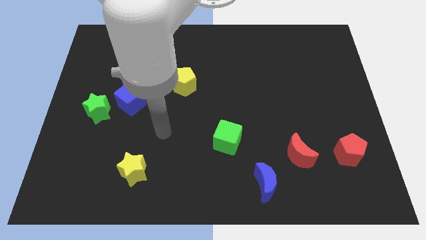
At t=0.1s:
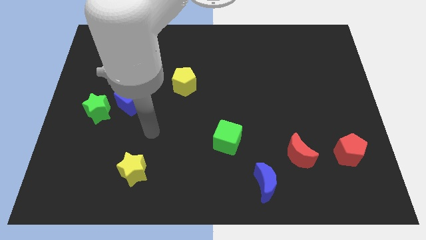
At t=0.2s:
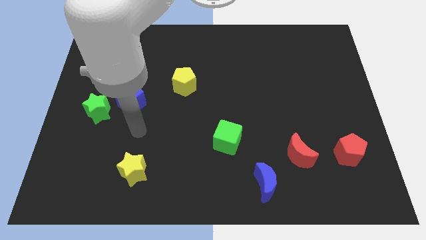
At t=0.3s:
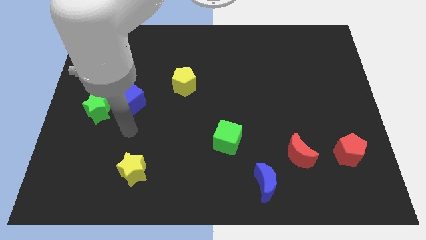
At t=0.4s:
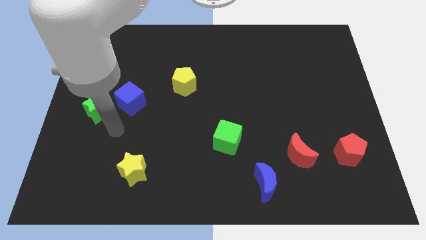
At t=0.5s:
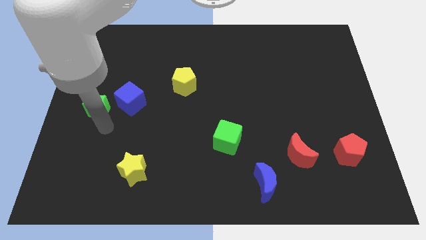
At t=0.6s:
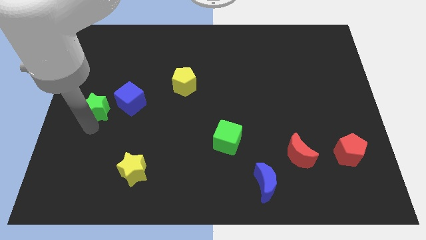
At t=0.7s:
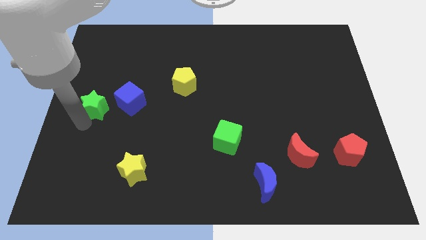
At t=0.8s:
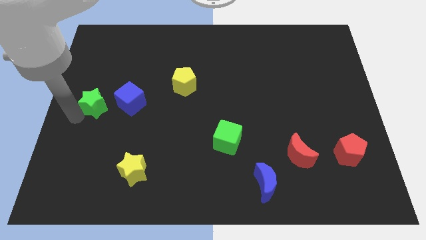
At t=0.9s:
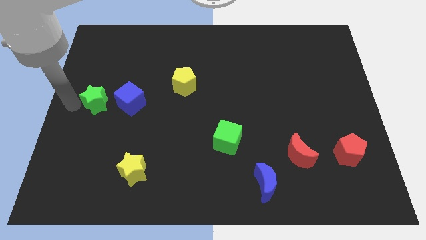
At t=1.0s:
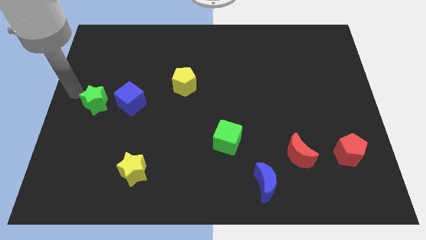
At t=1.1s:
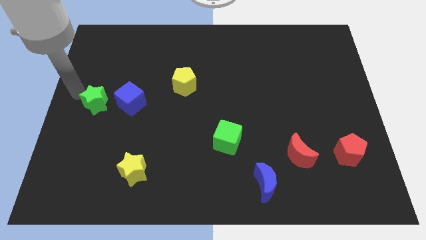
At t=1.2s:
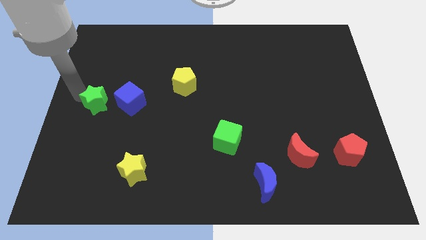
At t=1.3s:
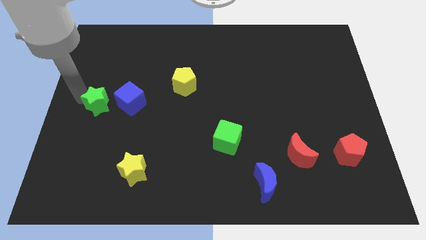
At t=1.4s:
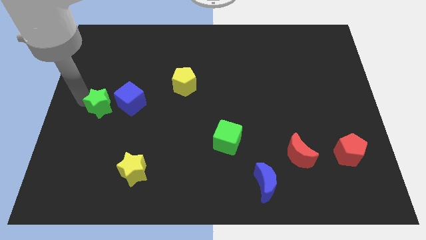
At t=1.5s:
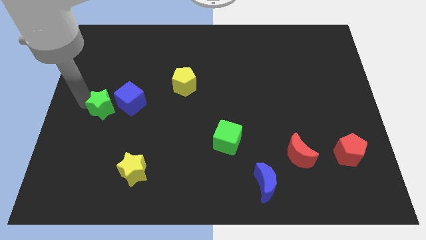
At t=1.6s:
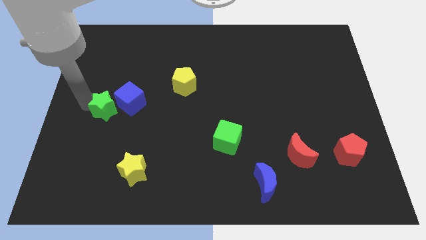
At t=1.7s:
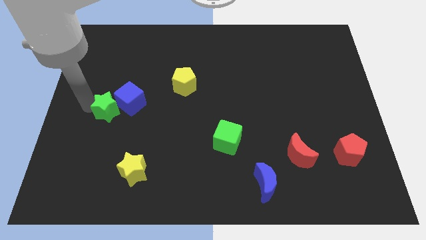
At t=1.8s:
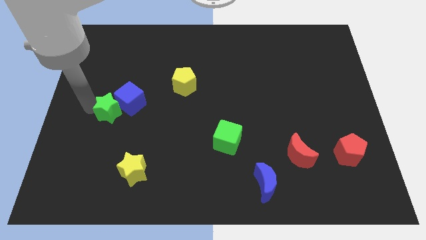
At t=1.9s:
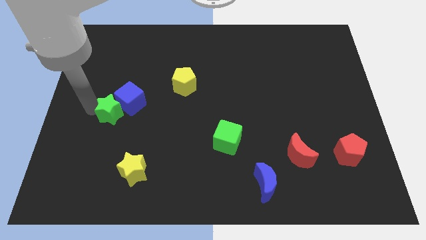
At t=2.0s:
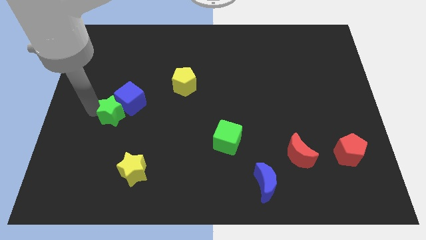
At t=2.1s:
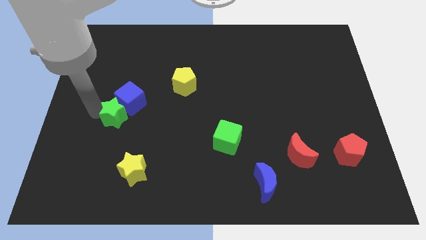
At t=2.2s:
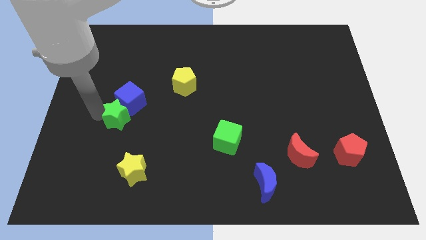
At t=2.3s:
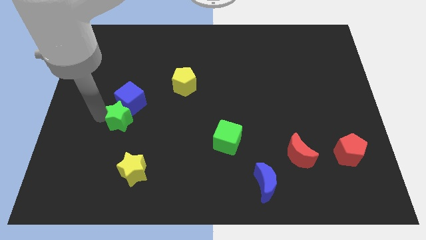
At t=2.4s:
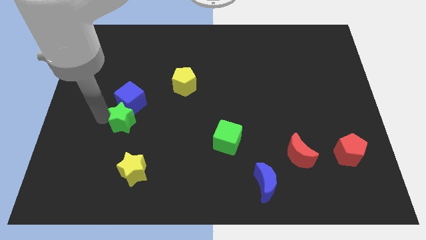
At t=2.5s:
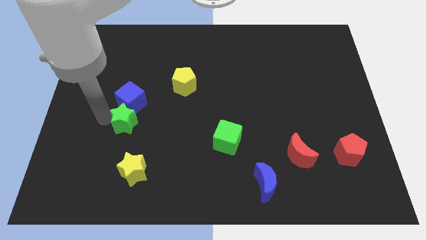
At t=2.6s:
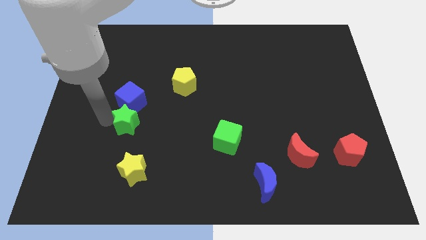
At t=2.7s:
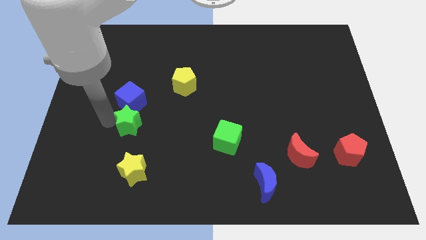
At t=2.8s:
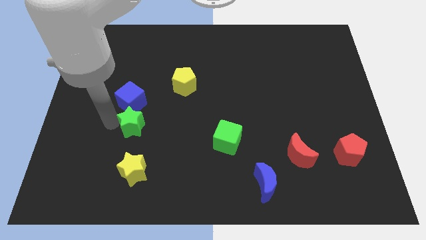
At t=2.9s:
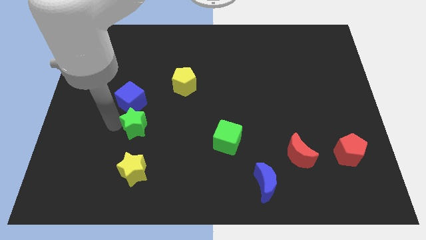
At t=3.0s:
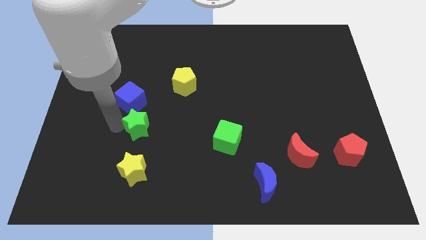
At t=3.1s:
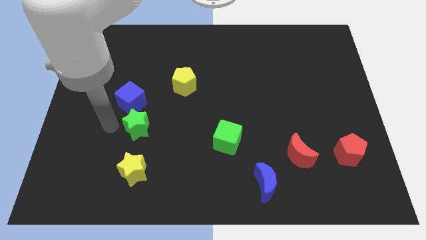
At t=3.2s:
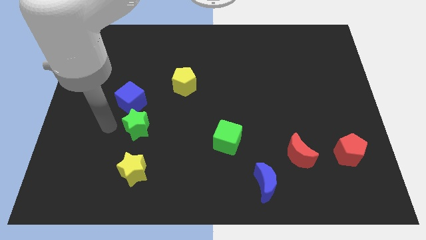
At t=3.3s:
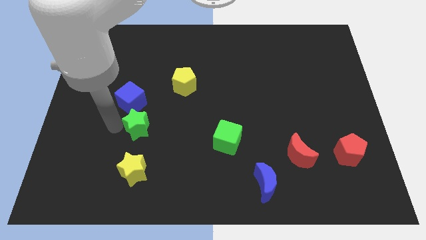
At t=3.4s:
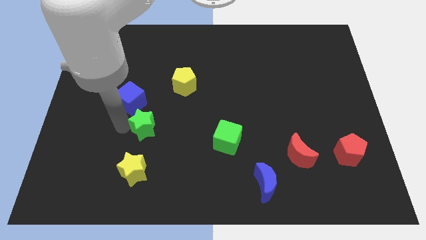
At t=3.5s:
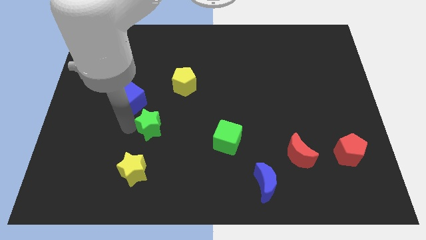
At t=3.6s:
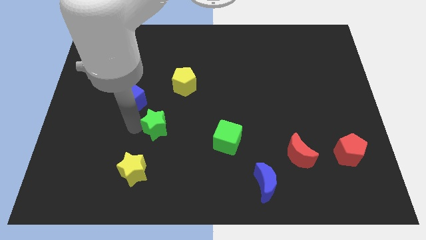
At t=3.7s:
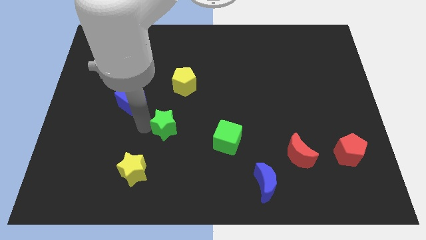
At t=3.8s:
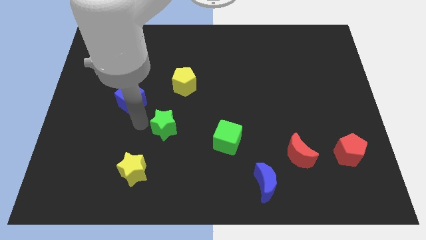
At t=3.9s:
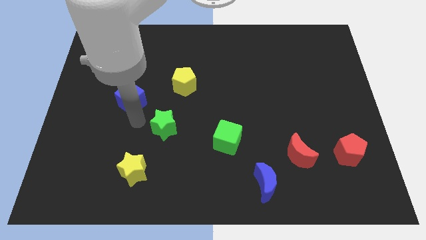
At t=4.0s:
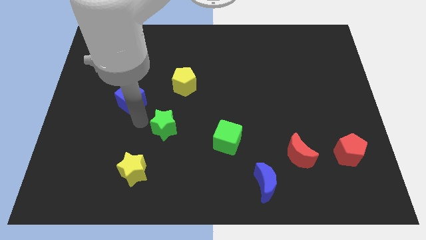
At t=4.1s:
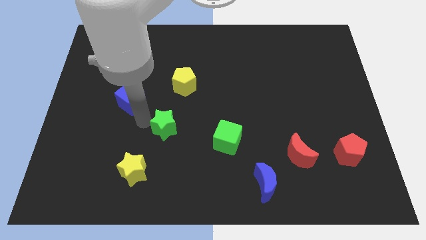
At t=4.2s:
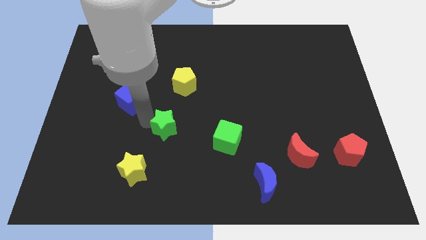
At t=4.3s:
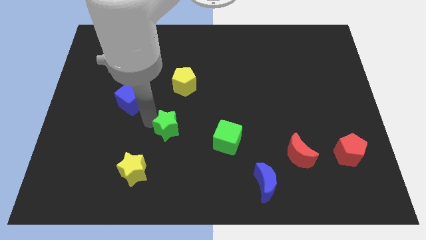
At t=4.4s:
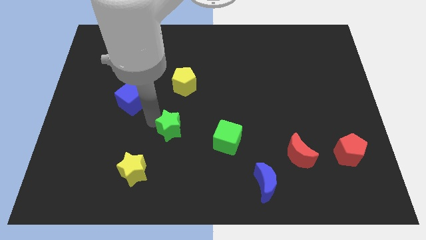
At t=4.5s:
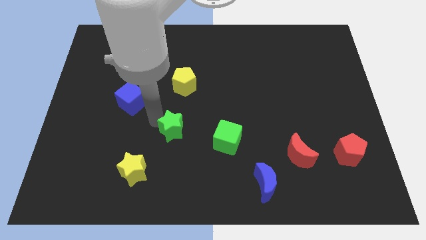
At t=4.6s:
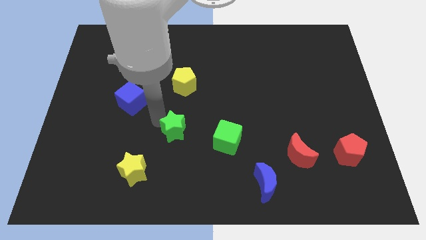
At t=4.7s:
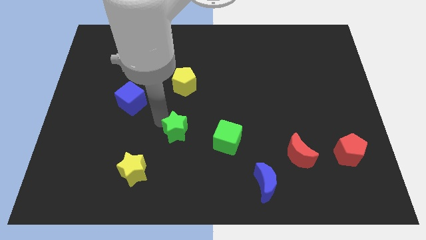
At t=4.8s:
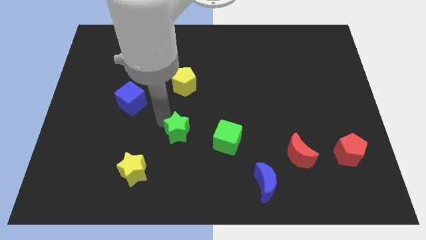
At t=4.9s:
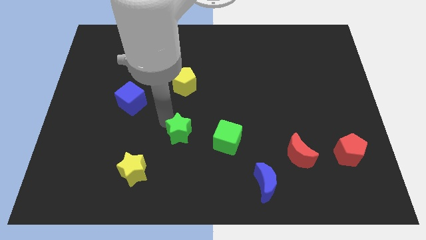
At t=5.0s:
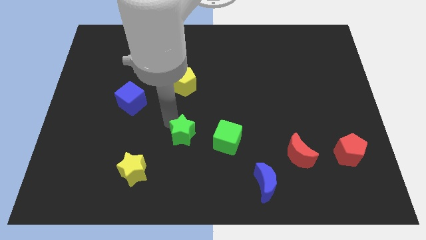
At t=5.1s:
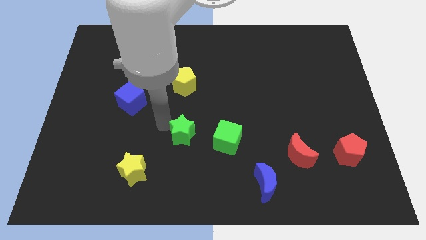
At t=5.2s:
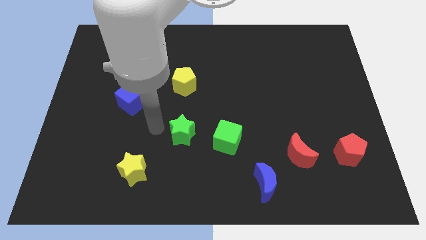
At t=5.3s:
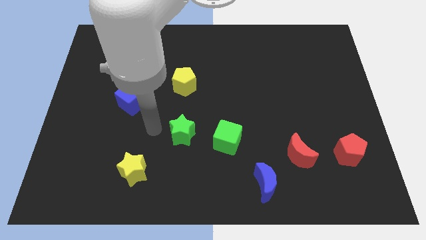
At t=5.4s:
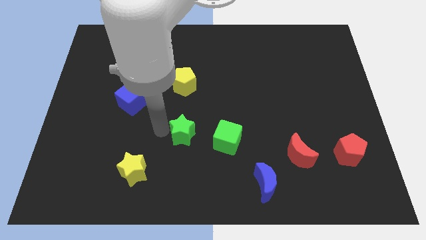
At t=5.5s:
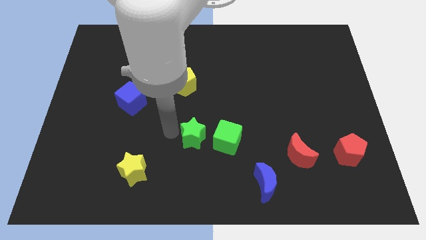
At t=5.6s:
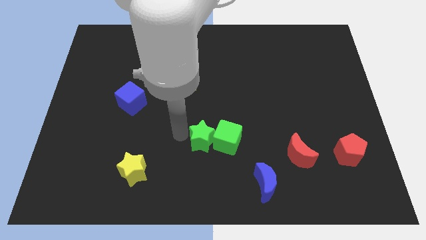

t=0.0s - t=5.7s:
slide the green star next to the green cube
